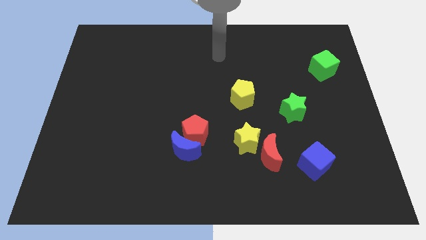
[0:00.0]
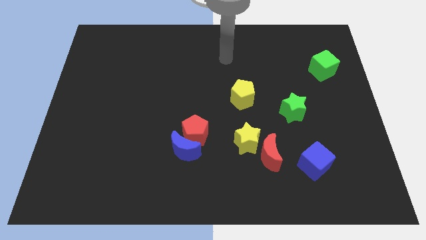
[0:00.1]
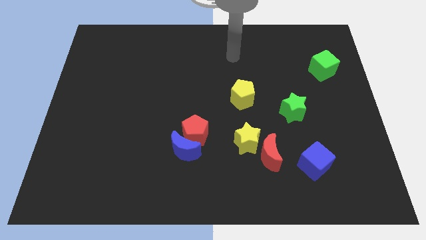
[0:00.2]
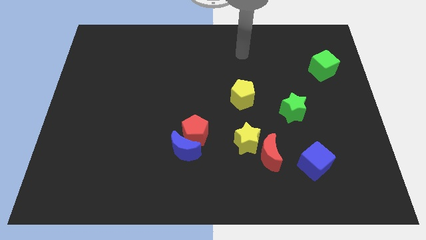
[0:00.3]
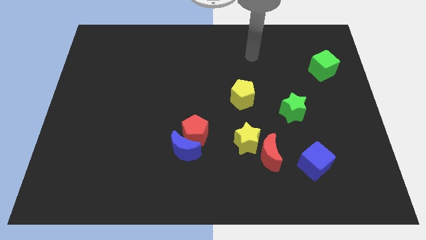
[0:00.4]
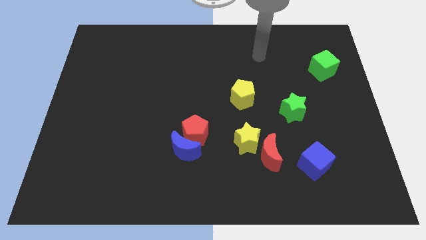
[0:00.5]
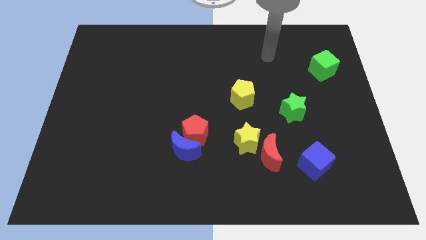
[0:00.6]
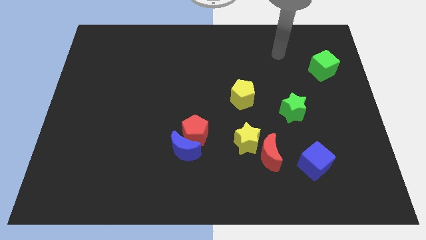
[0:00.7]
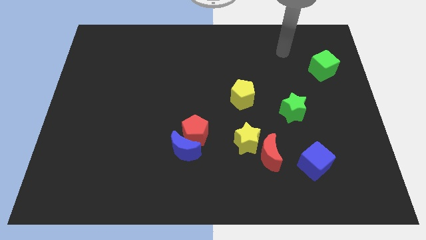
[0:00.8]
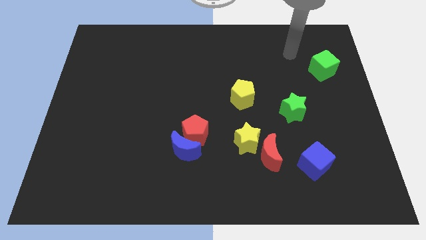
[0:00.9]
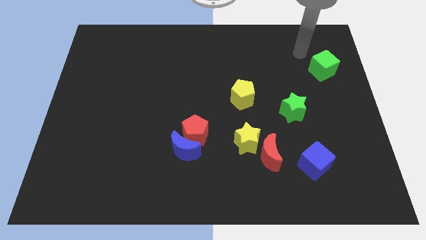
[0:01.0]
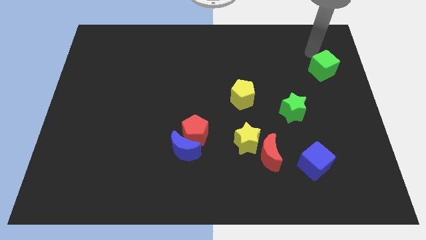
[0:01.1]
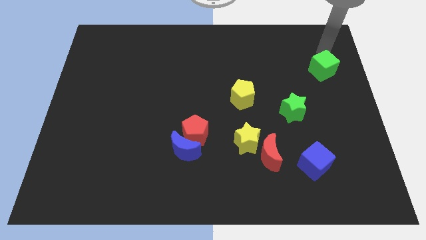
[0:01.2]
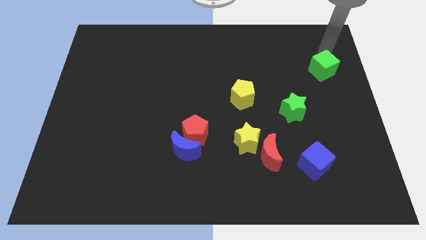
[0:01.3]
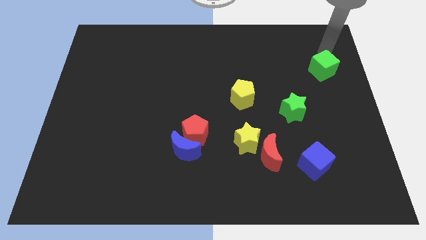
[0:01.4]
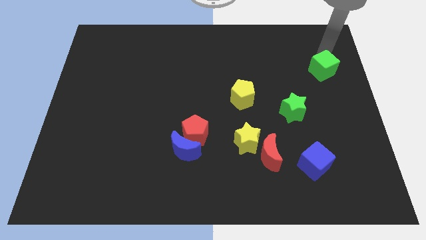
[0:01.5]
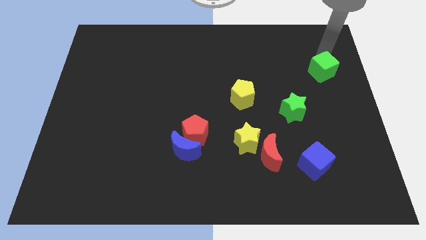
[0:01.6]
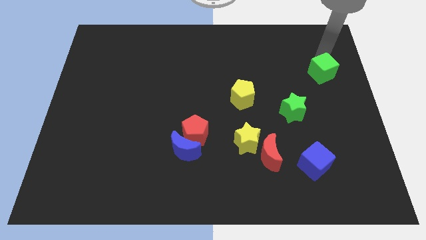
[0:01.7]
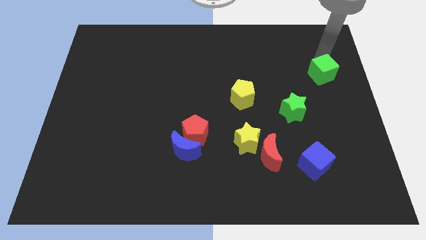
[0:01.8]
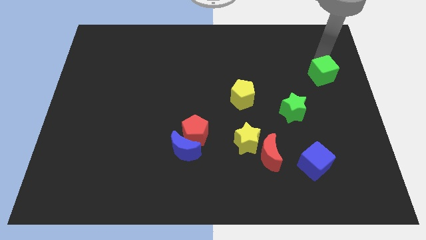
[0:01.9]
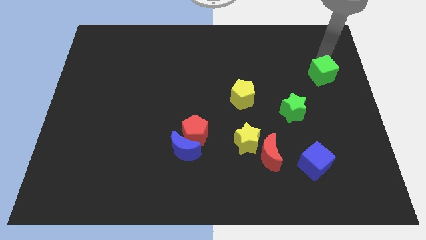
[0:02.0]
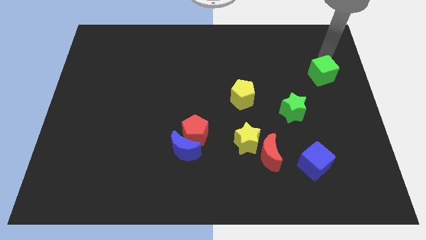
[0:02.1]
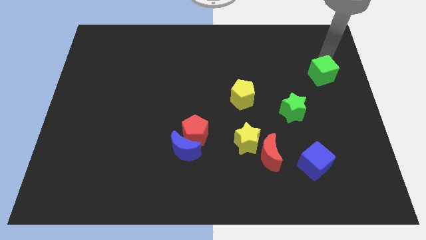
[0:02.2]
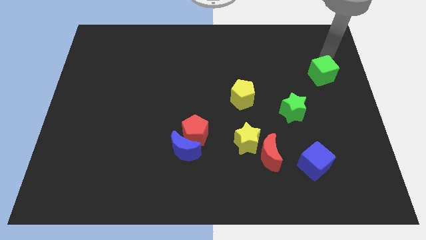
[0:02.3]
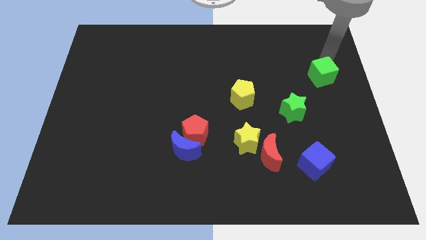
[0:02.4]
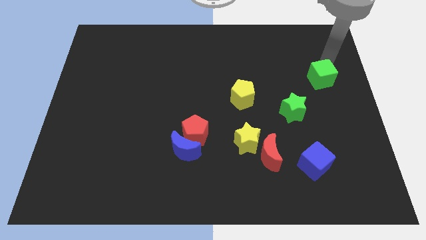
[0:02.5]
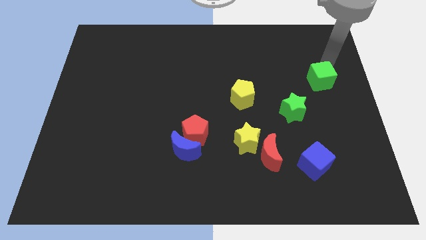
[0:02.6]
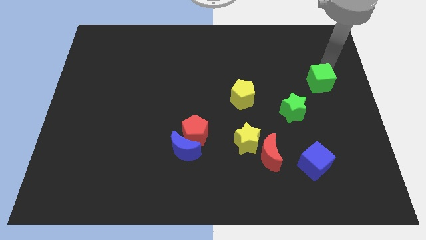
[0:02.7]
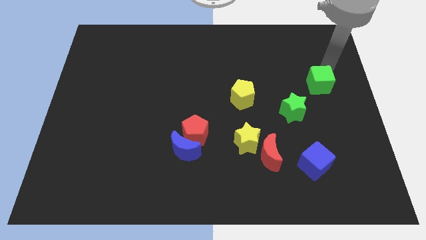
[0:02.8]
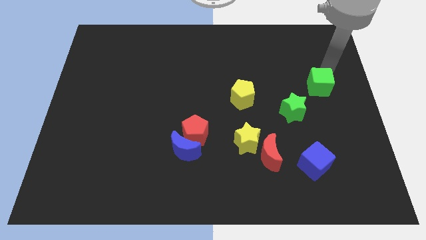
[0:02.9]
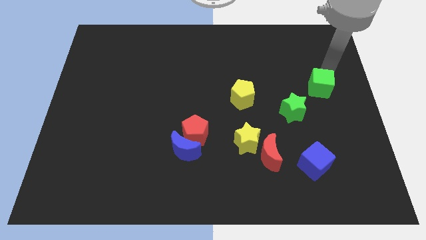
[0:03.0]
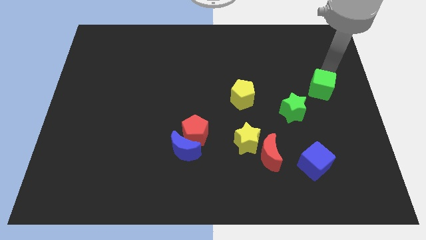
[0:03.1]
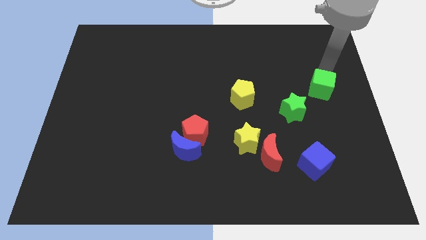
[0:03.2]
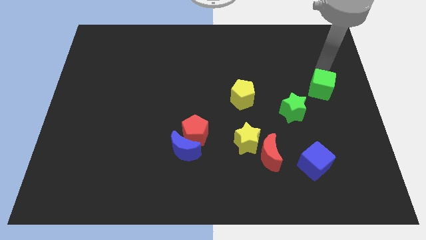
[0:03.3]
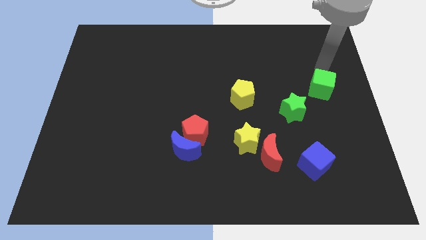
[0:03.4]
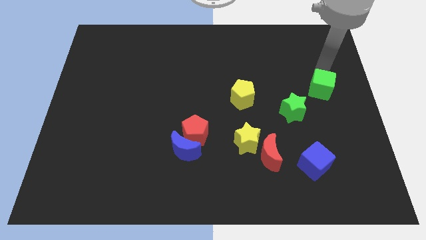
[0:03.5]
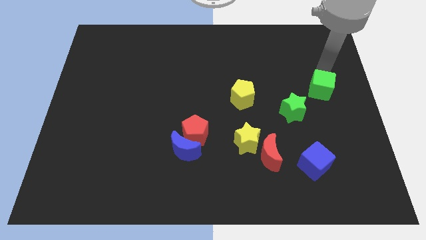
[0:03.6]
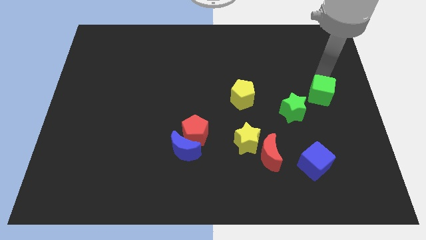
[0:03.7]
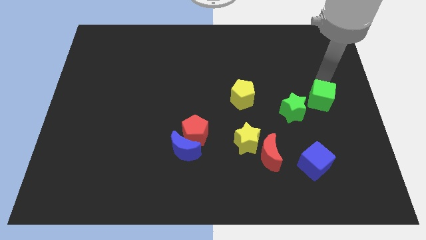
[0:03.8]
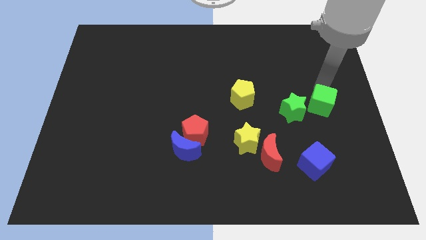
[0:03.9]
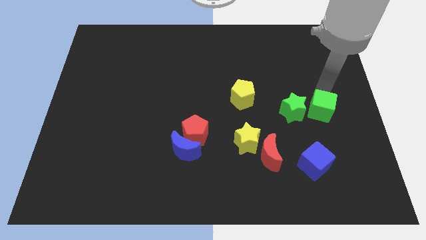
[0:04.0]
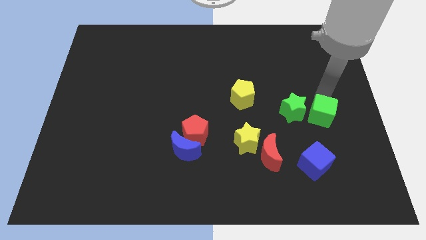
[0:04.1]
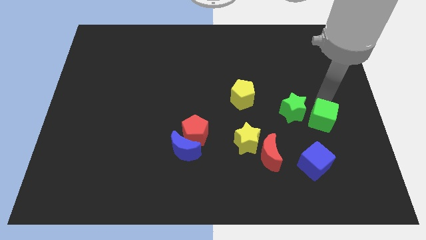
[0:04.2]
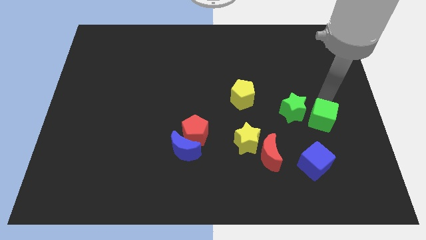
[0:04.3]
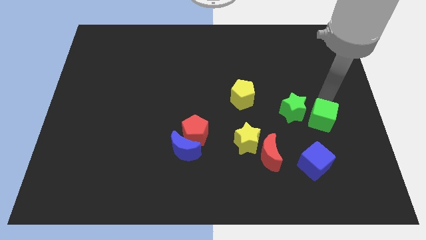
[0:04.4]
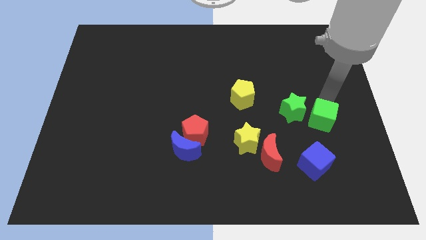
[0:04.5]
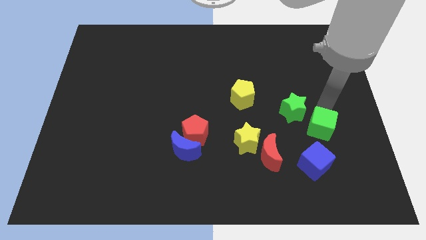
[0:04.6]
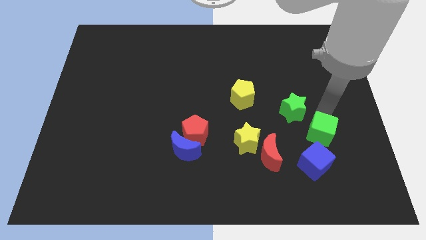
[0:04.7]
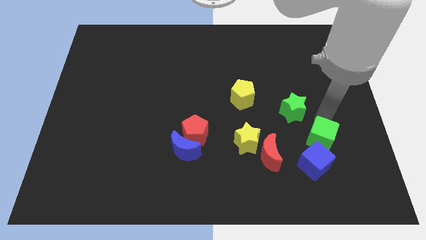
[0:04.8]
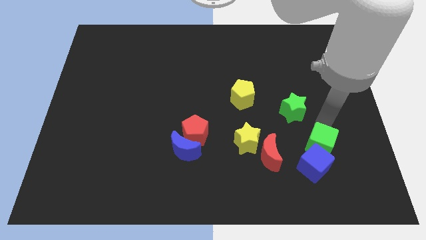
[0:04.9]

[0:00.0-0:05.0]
slide the green cube to the blue cube

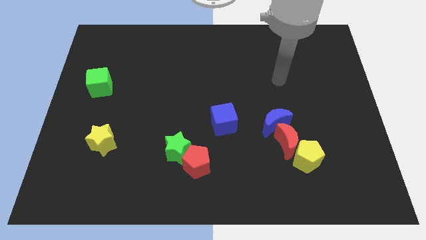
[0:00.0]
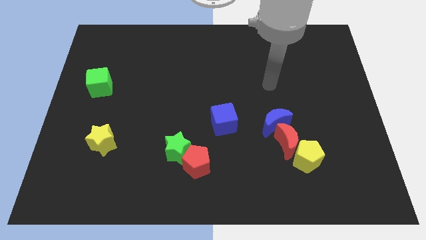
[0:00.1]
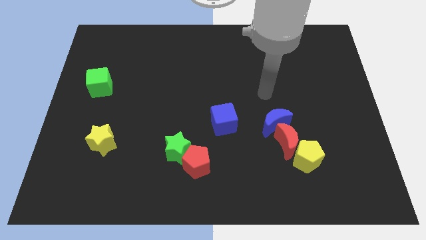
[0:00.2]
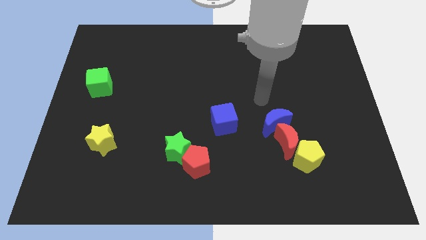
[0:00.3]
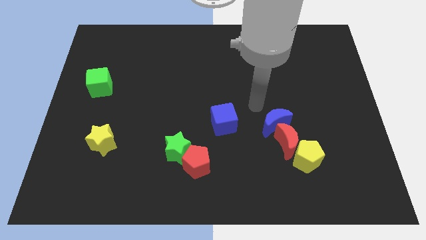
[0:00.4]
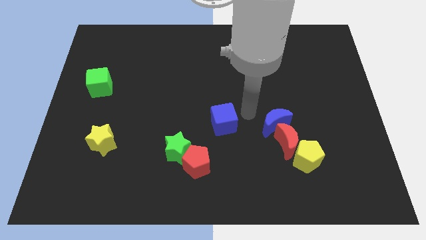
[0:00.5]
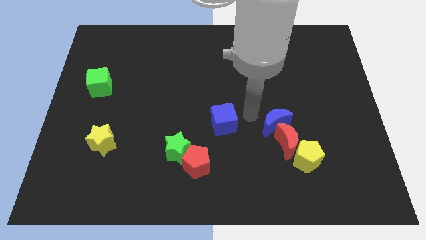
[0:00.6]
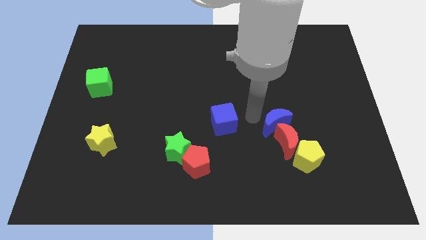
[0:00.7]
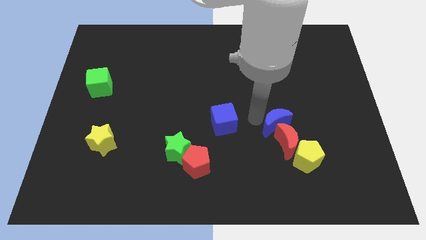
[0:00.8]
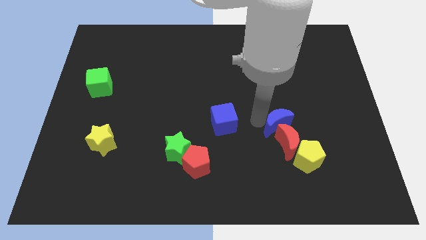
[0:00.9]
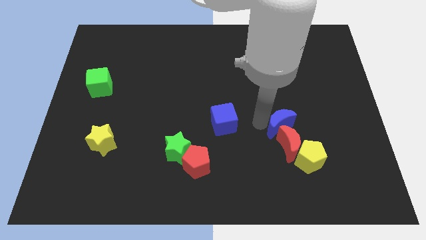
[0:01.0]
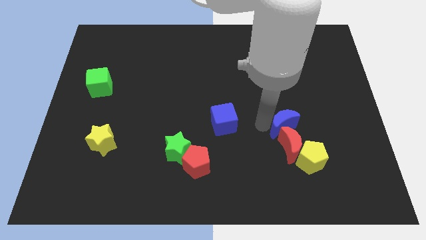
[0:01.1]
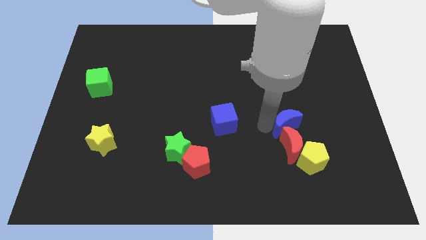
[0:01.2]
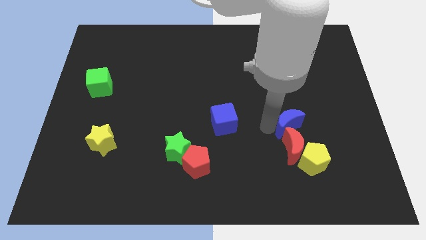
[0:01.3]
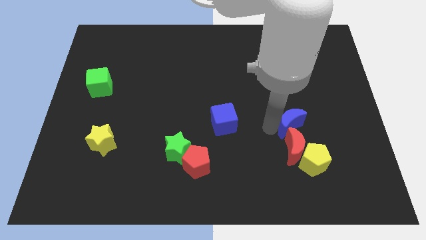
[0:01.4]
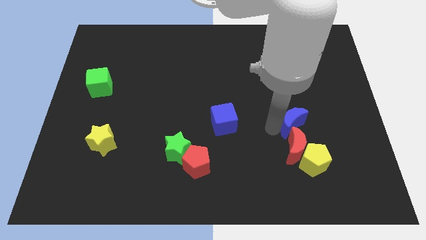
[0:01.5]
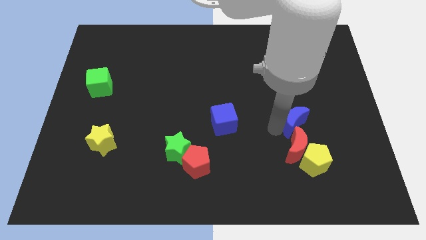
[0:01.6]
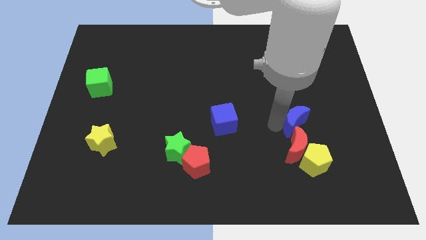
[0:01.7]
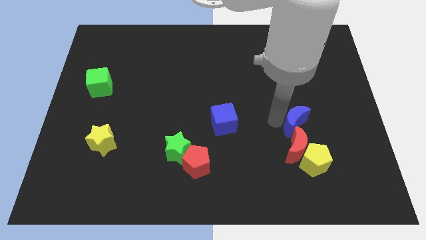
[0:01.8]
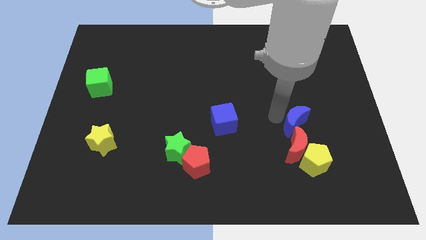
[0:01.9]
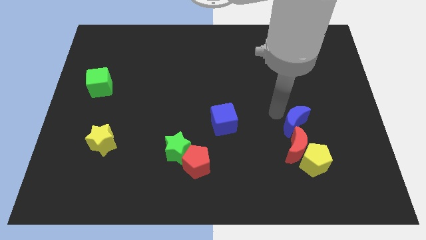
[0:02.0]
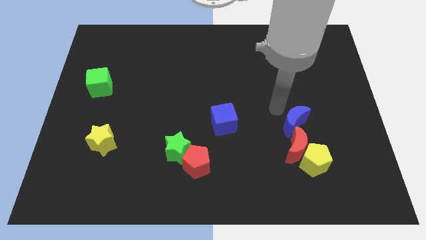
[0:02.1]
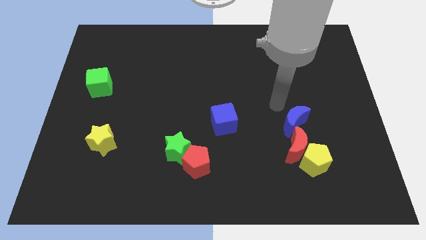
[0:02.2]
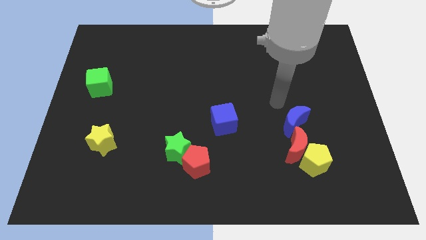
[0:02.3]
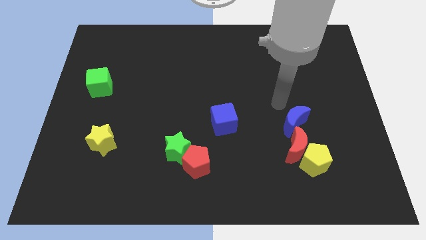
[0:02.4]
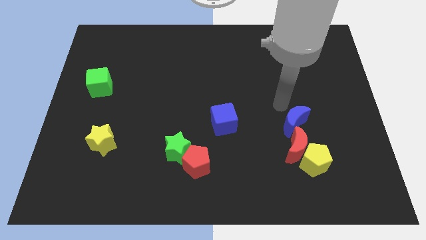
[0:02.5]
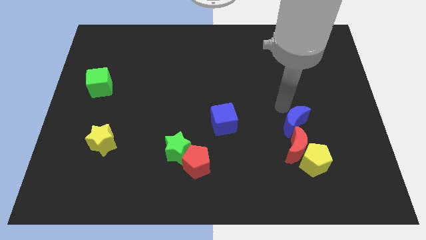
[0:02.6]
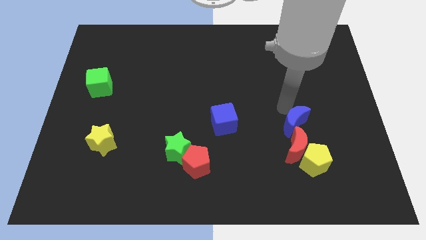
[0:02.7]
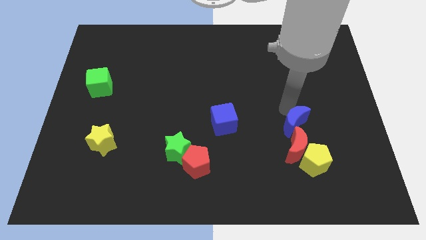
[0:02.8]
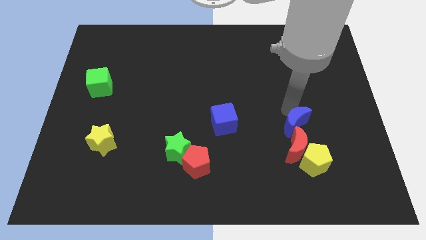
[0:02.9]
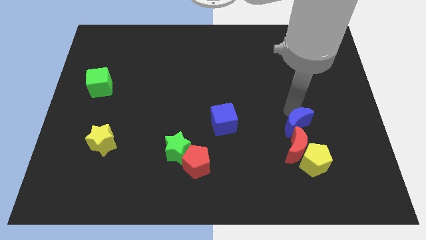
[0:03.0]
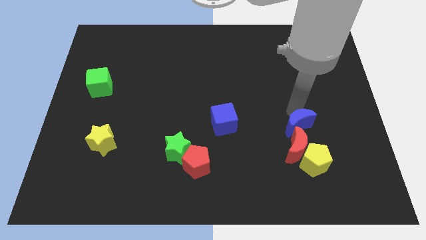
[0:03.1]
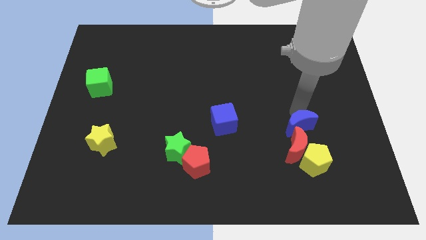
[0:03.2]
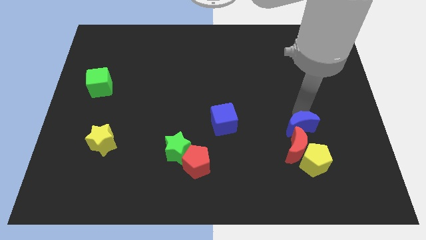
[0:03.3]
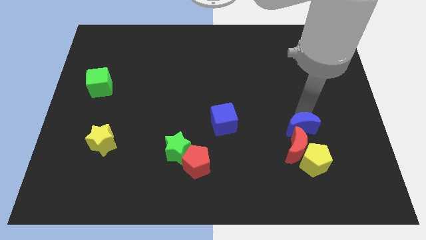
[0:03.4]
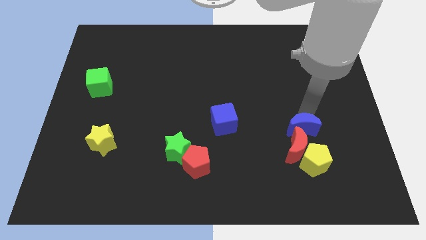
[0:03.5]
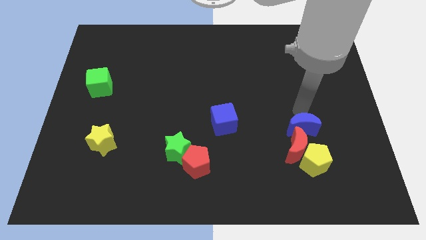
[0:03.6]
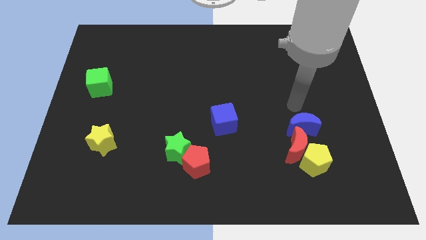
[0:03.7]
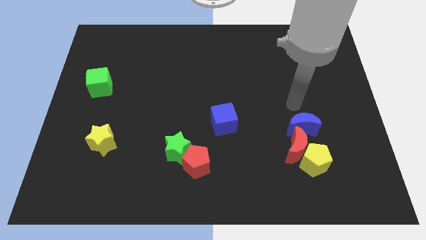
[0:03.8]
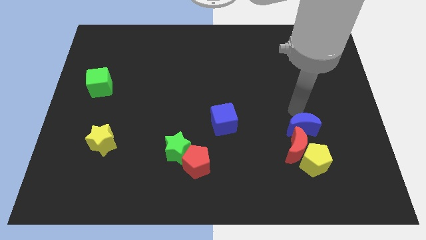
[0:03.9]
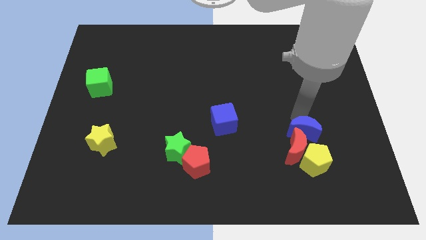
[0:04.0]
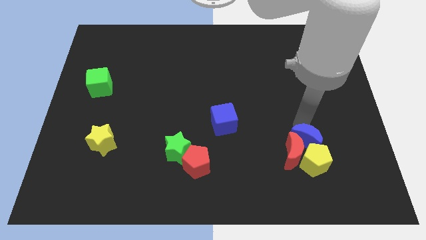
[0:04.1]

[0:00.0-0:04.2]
slide the blue moon to the yellow pentagon
